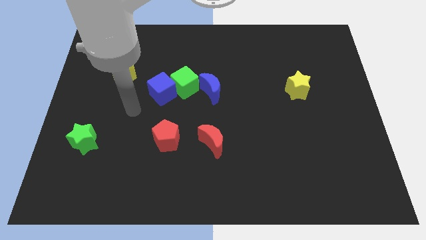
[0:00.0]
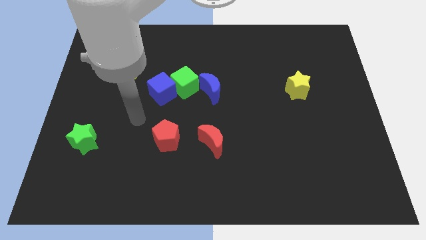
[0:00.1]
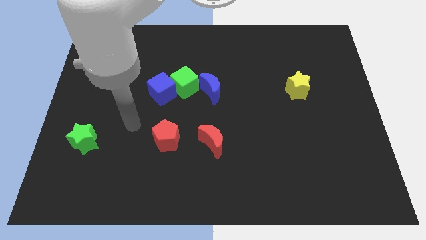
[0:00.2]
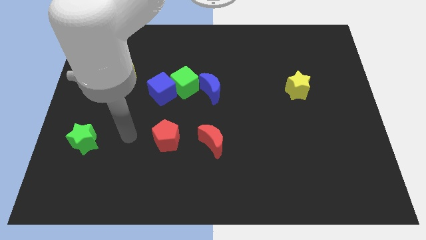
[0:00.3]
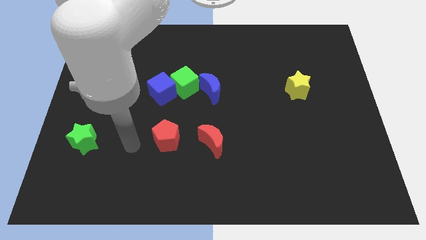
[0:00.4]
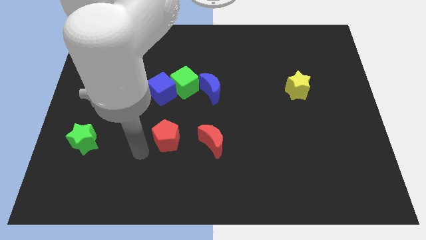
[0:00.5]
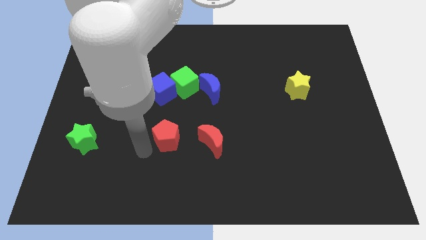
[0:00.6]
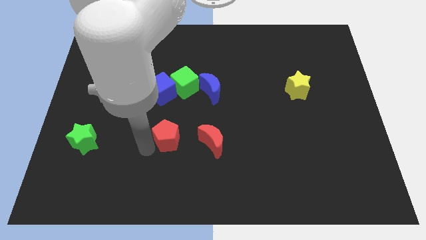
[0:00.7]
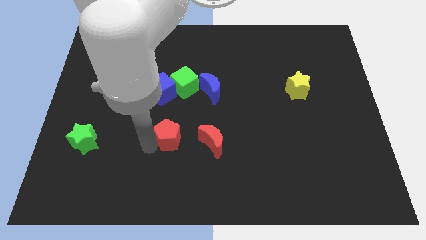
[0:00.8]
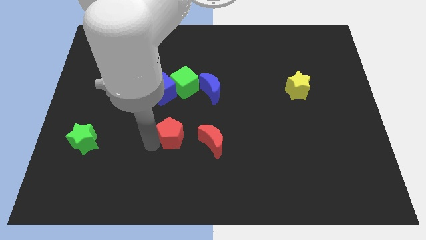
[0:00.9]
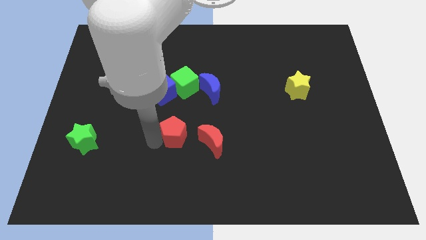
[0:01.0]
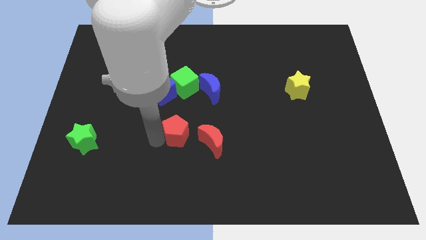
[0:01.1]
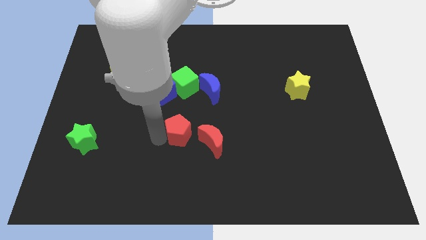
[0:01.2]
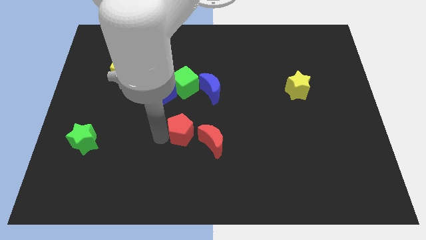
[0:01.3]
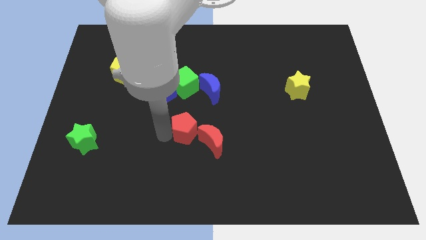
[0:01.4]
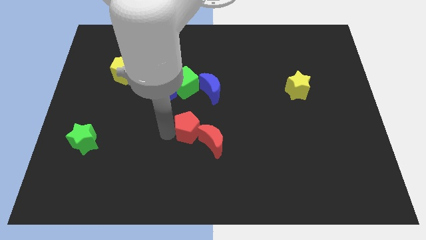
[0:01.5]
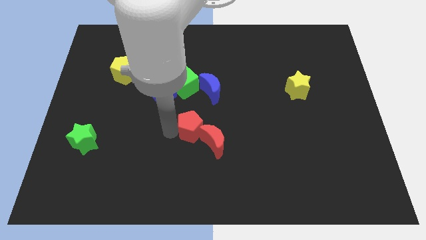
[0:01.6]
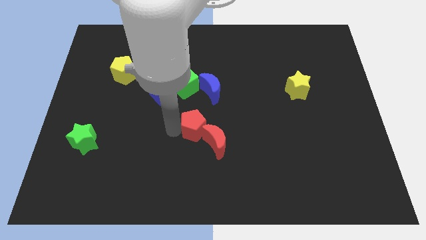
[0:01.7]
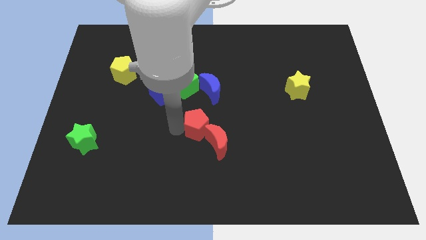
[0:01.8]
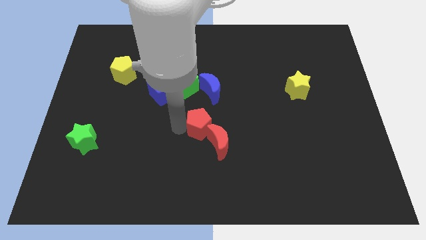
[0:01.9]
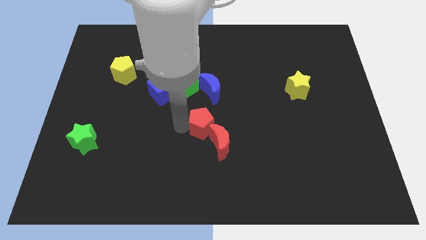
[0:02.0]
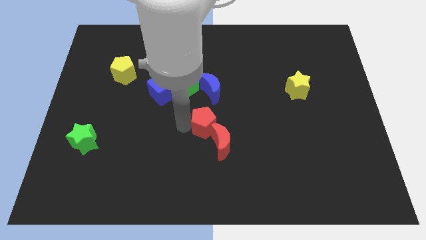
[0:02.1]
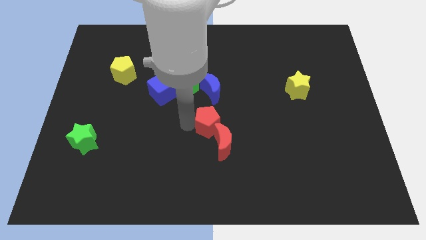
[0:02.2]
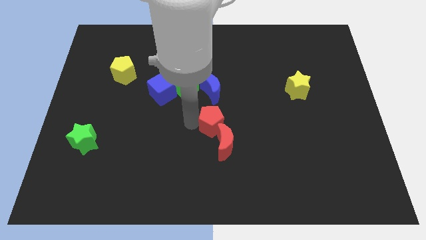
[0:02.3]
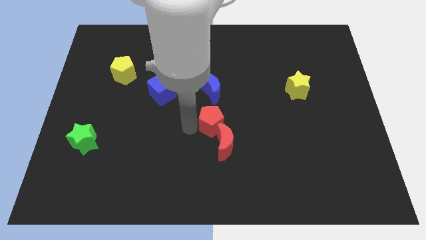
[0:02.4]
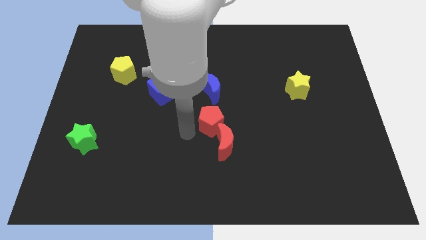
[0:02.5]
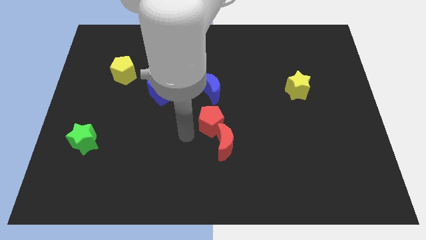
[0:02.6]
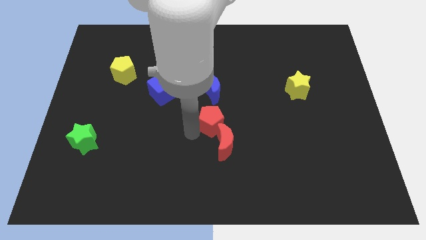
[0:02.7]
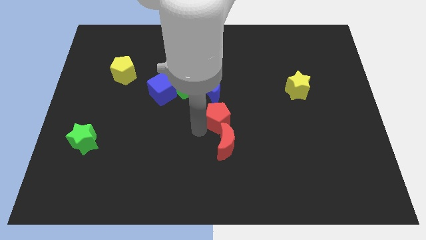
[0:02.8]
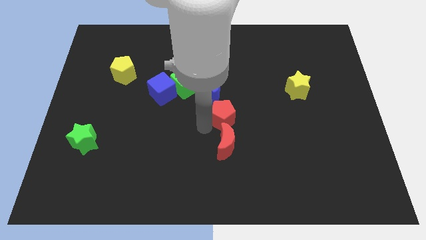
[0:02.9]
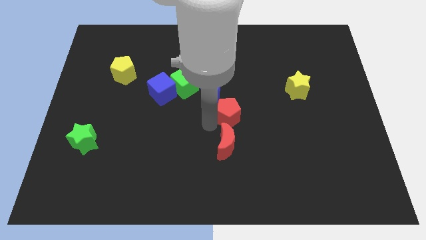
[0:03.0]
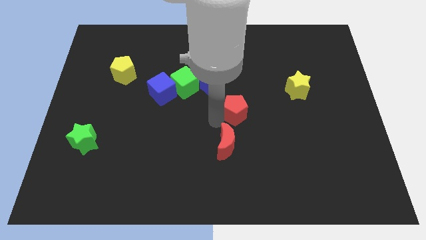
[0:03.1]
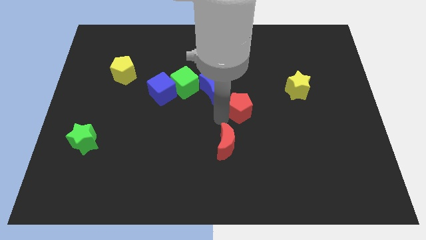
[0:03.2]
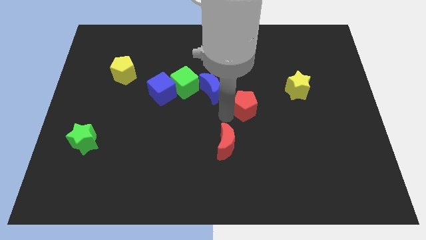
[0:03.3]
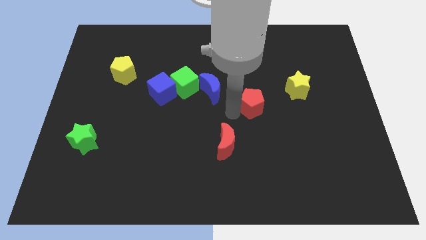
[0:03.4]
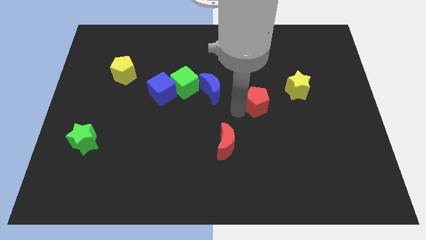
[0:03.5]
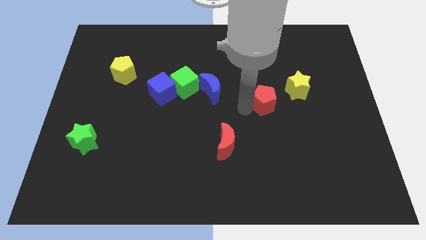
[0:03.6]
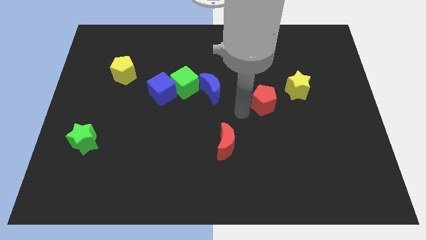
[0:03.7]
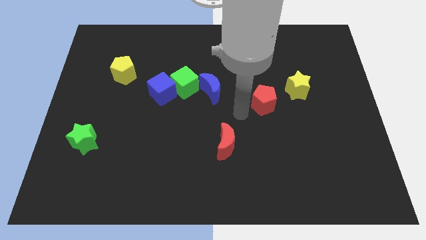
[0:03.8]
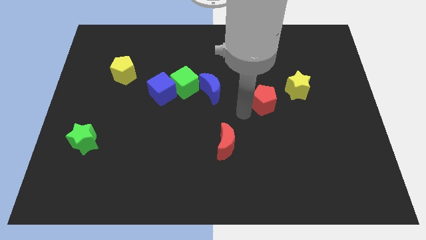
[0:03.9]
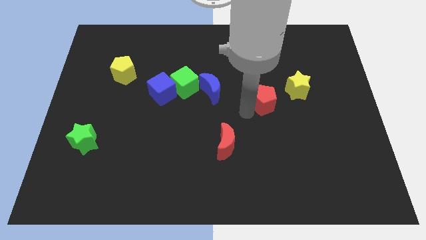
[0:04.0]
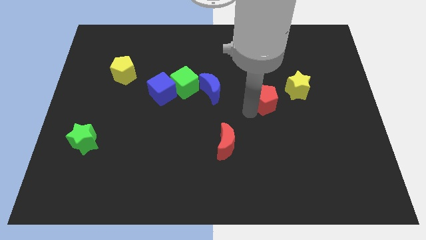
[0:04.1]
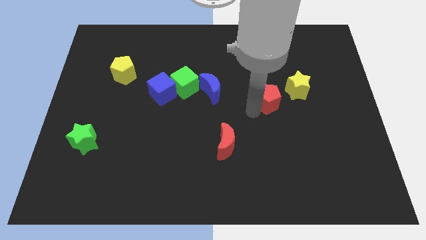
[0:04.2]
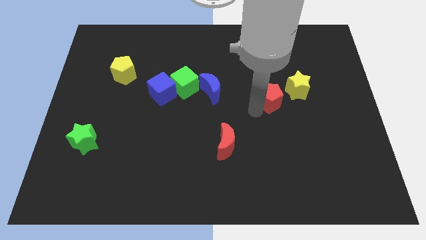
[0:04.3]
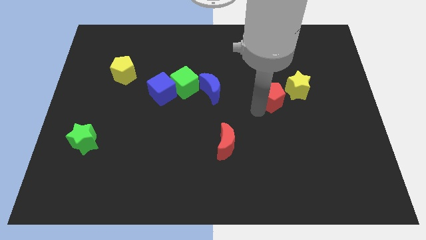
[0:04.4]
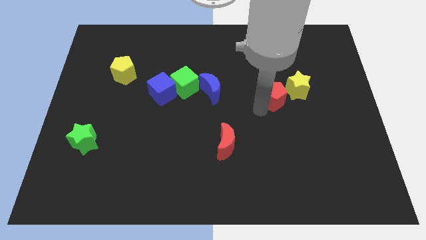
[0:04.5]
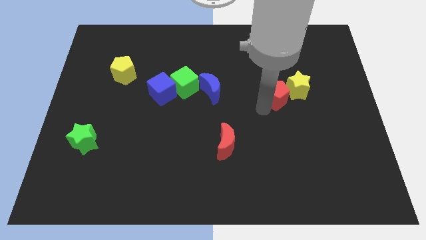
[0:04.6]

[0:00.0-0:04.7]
put the red pentagon to the yellow star

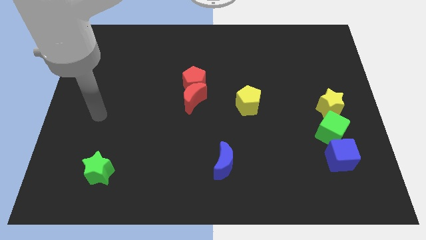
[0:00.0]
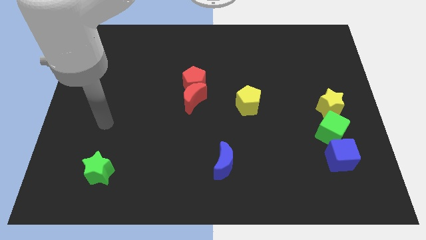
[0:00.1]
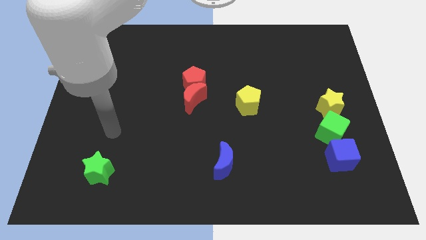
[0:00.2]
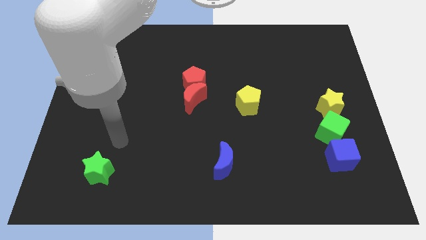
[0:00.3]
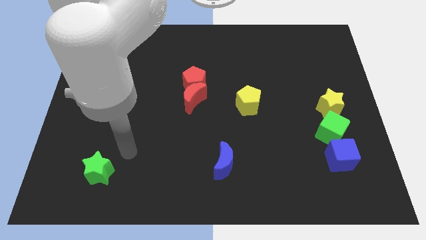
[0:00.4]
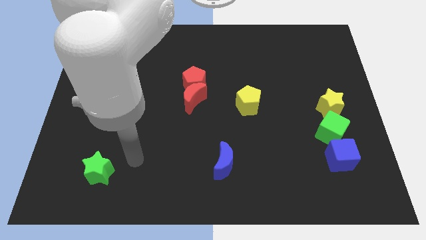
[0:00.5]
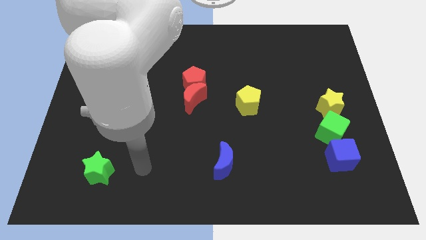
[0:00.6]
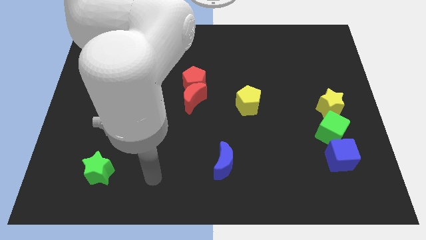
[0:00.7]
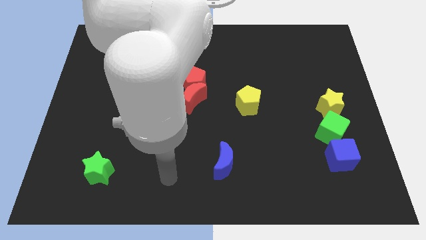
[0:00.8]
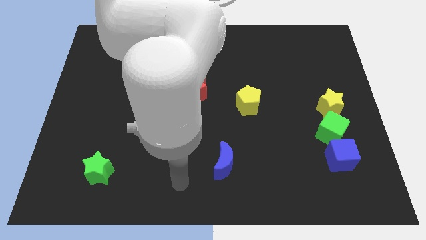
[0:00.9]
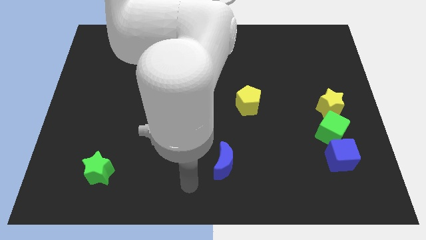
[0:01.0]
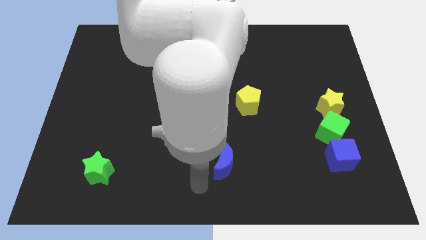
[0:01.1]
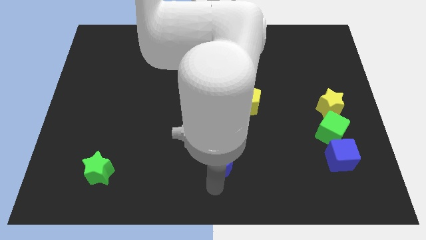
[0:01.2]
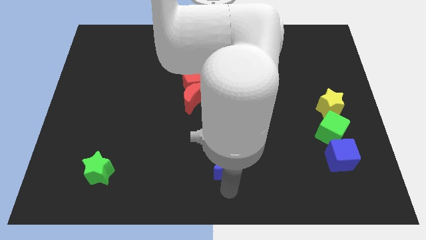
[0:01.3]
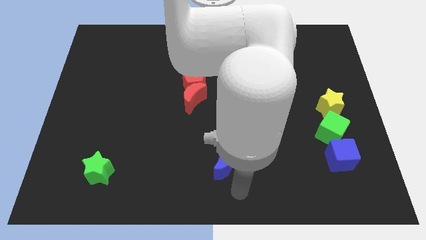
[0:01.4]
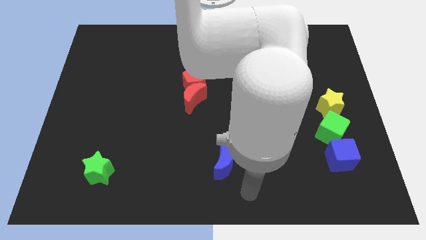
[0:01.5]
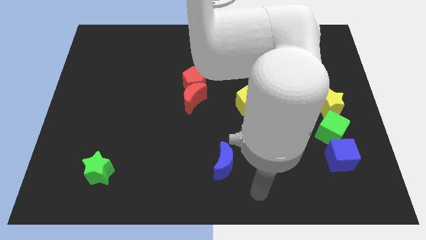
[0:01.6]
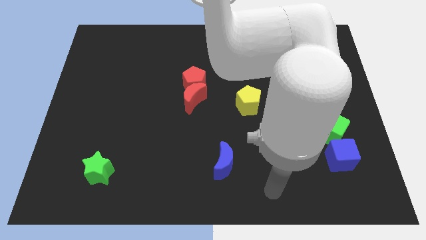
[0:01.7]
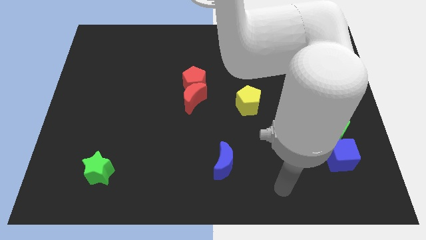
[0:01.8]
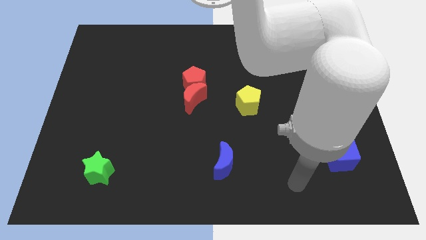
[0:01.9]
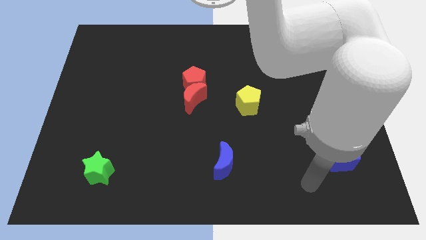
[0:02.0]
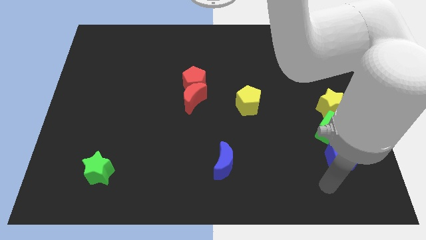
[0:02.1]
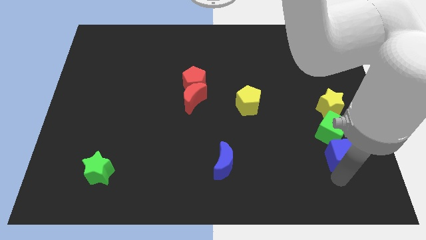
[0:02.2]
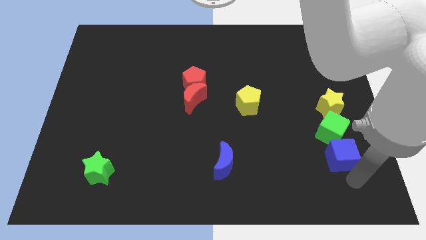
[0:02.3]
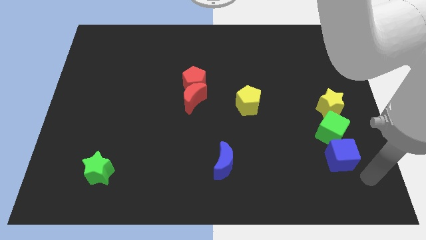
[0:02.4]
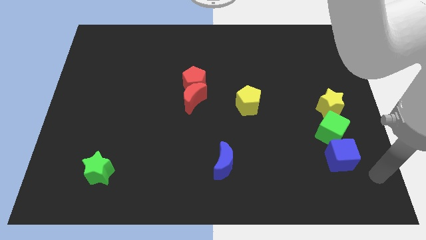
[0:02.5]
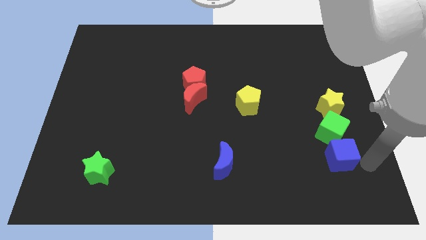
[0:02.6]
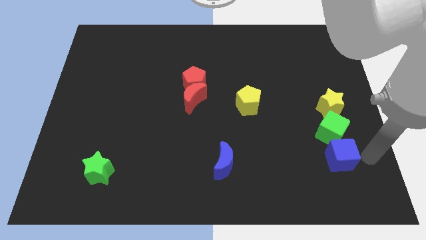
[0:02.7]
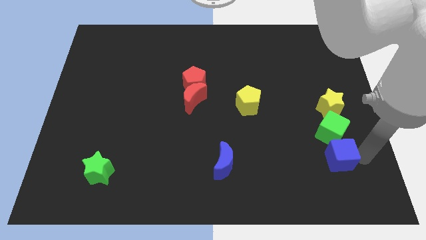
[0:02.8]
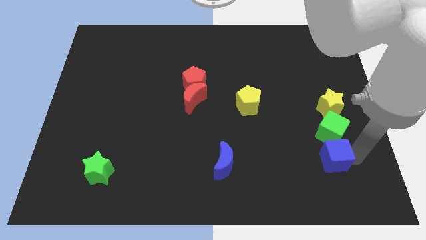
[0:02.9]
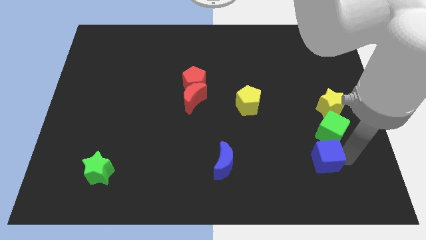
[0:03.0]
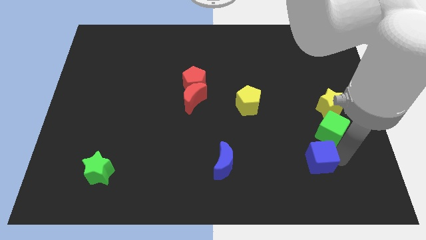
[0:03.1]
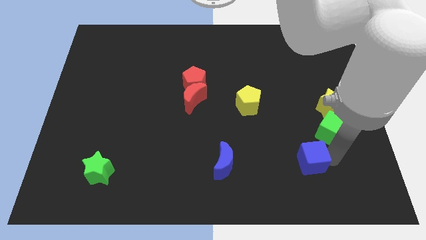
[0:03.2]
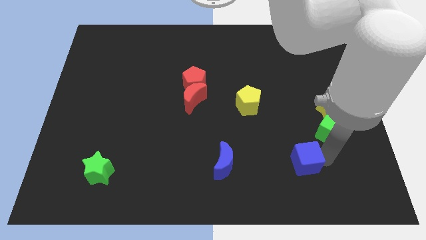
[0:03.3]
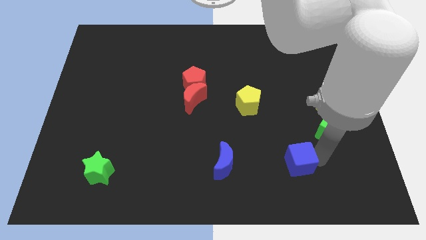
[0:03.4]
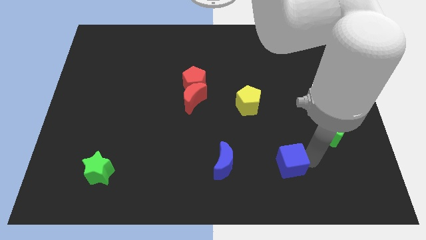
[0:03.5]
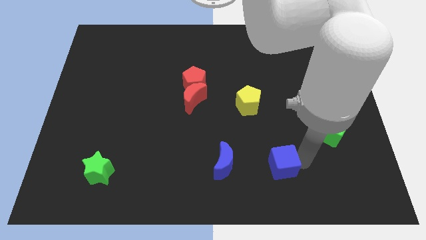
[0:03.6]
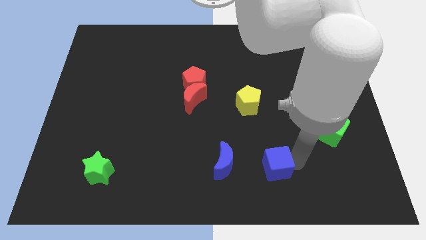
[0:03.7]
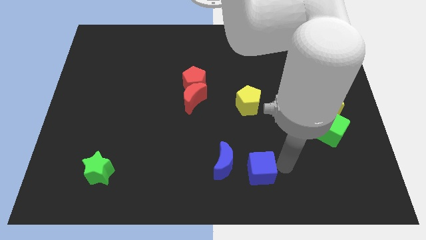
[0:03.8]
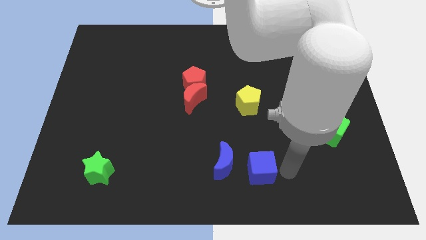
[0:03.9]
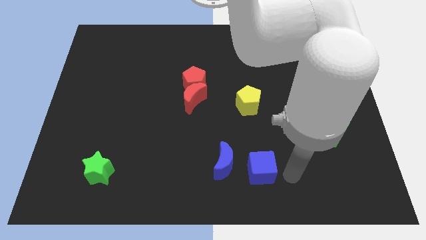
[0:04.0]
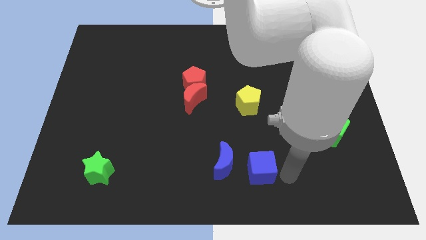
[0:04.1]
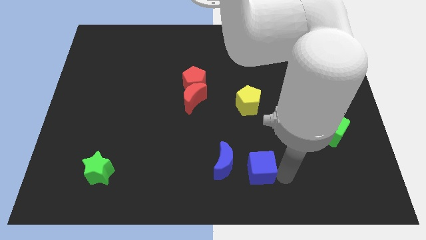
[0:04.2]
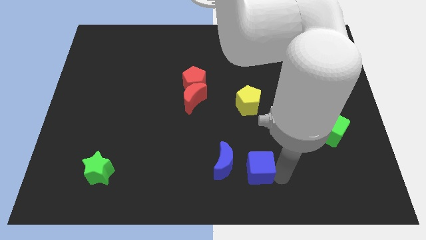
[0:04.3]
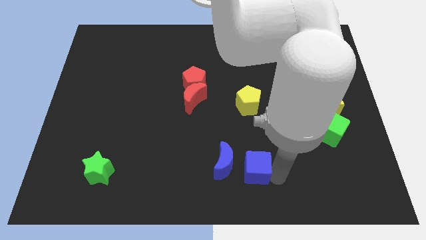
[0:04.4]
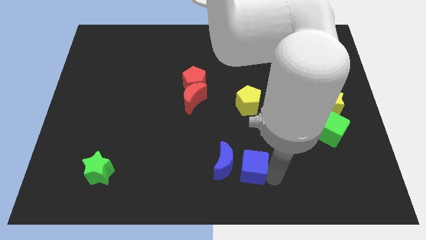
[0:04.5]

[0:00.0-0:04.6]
put the blue cube next to the blue moon
